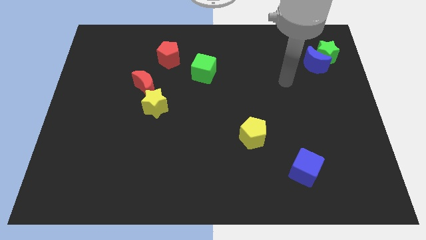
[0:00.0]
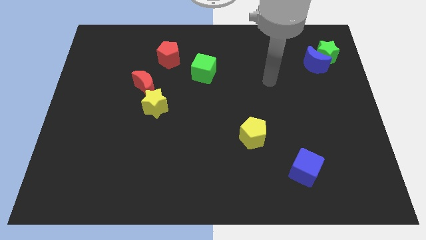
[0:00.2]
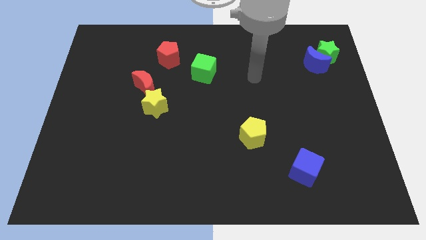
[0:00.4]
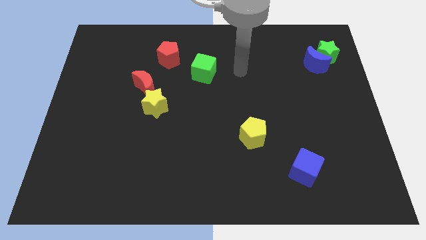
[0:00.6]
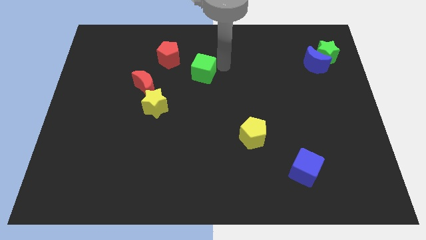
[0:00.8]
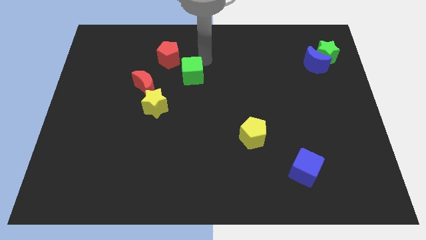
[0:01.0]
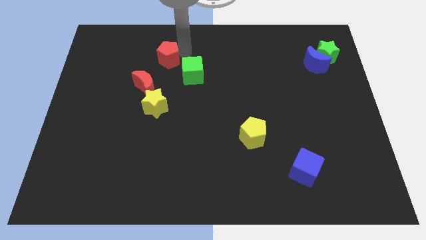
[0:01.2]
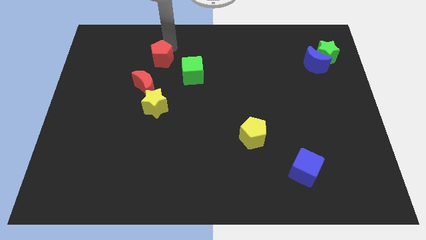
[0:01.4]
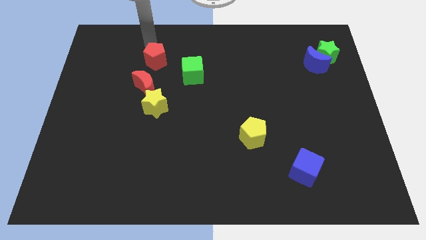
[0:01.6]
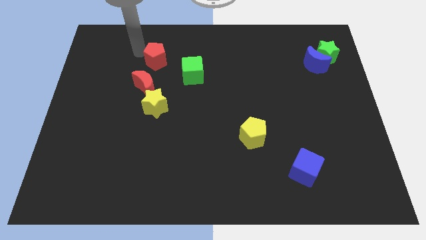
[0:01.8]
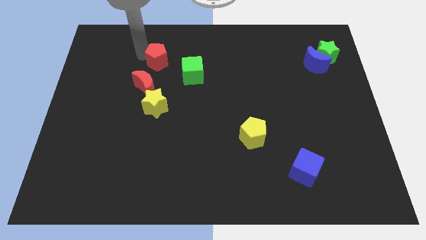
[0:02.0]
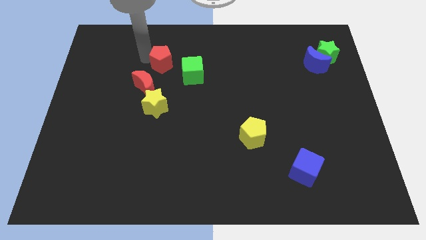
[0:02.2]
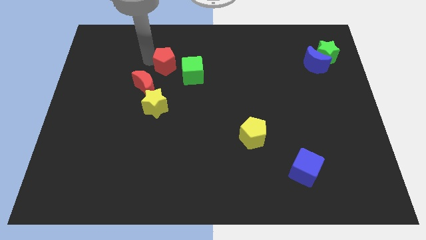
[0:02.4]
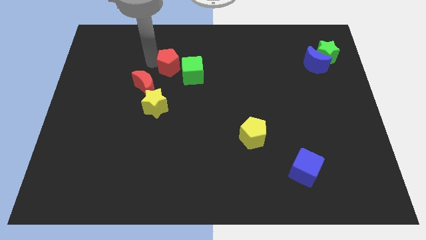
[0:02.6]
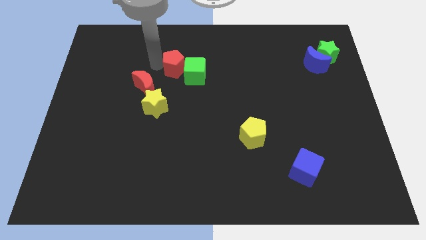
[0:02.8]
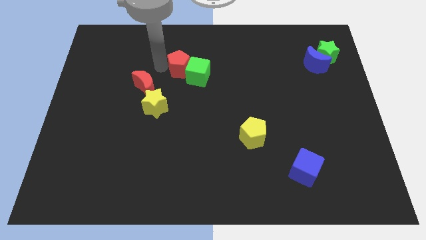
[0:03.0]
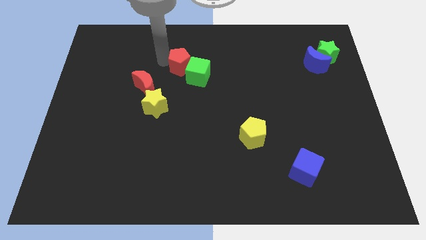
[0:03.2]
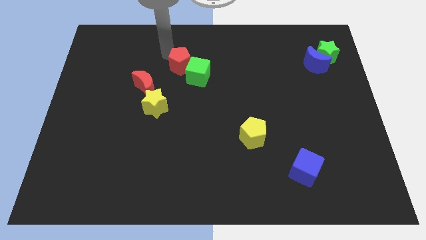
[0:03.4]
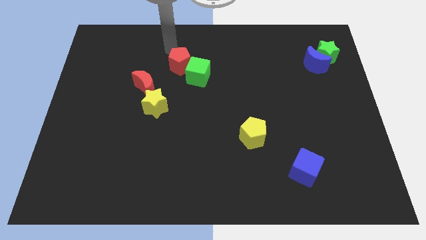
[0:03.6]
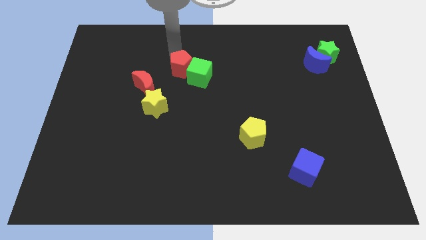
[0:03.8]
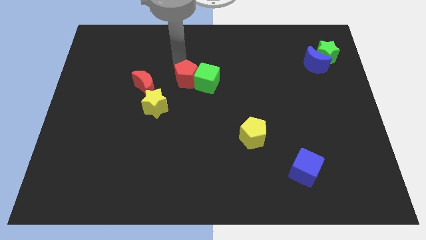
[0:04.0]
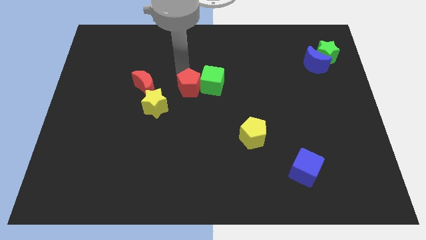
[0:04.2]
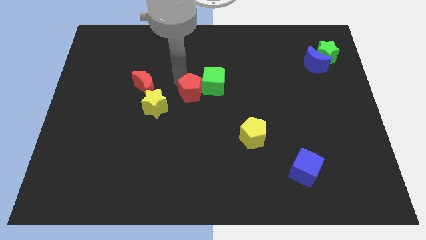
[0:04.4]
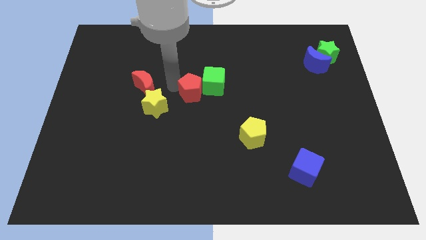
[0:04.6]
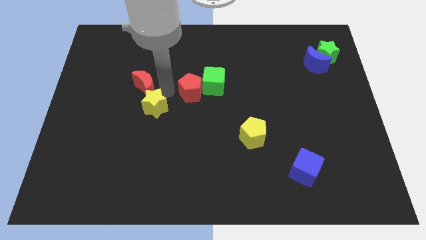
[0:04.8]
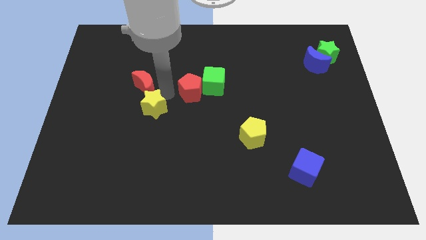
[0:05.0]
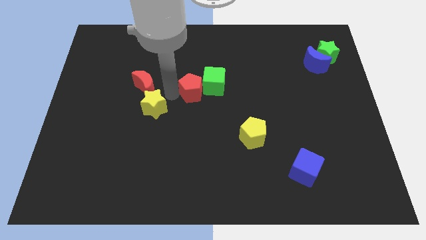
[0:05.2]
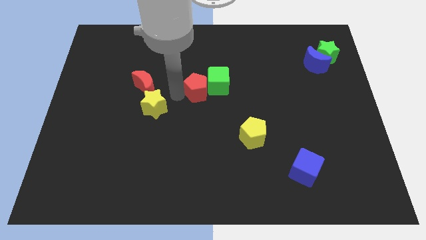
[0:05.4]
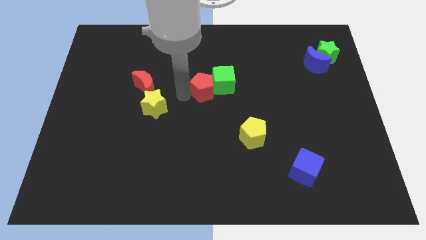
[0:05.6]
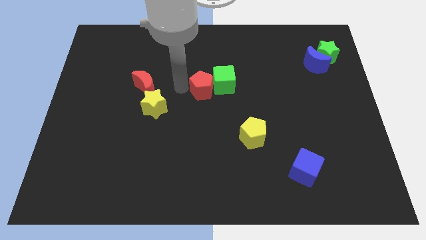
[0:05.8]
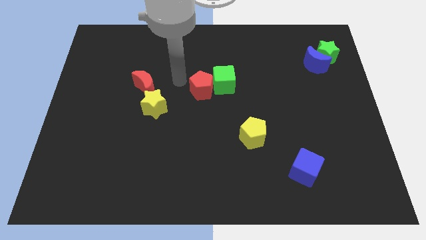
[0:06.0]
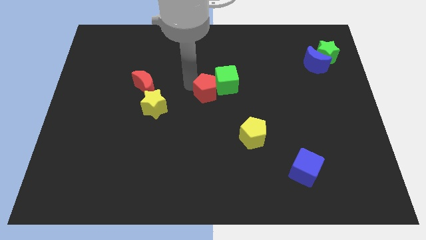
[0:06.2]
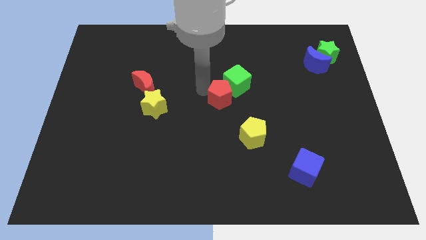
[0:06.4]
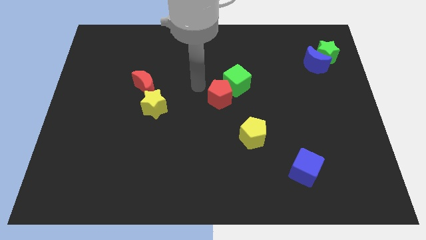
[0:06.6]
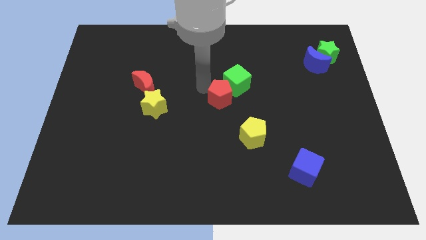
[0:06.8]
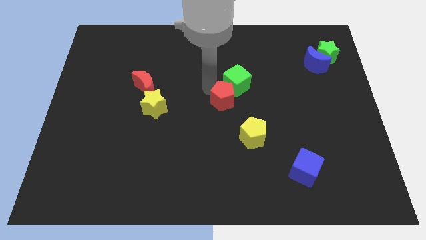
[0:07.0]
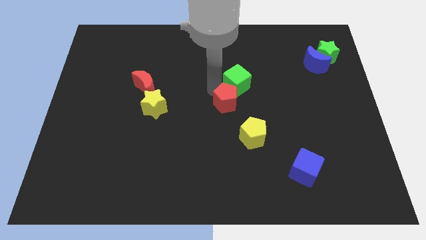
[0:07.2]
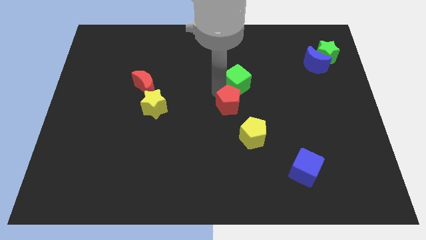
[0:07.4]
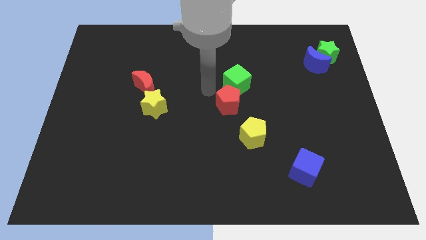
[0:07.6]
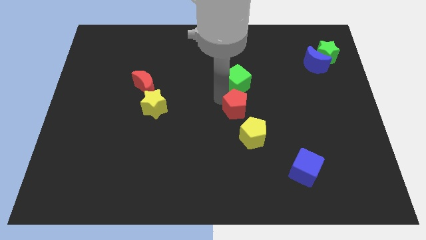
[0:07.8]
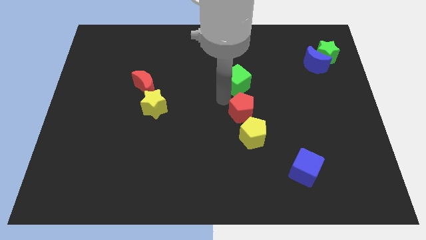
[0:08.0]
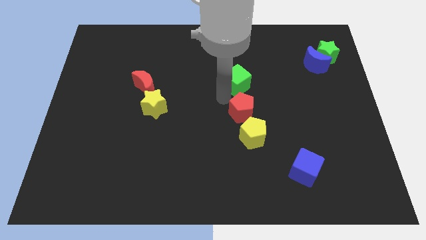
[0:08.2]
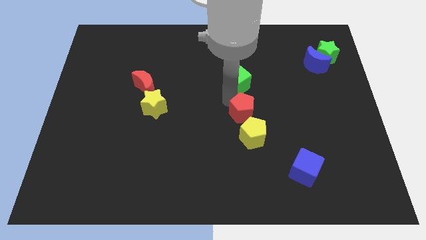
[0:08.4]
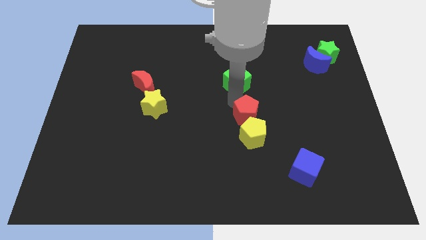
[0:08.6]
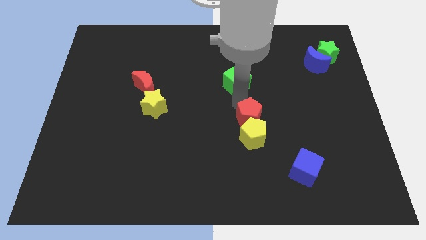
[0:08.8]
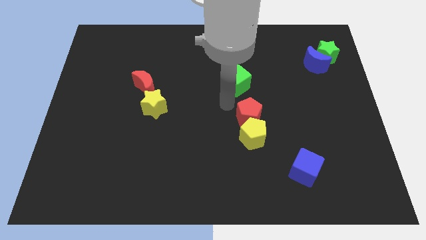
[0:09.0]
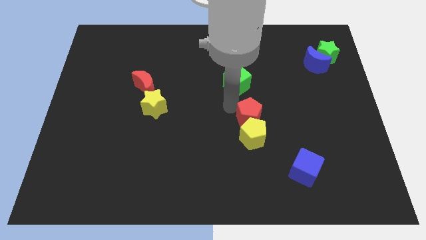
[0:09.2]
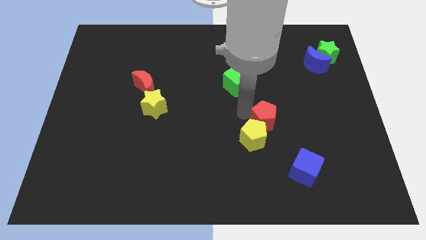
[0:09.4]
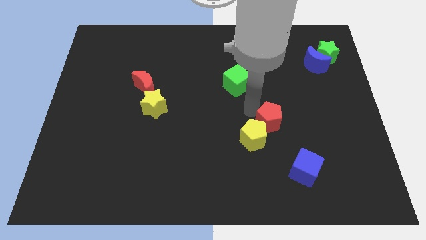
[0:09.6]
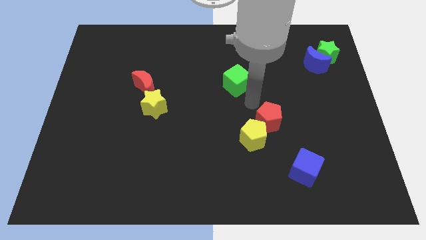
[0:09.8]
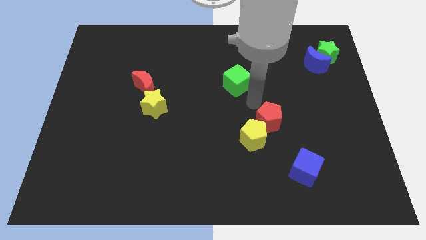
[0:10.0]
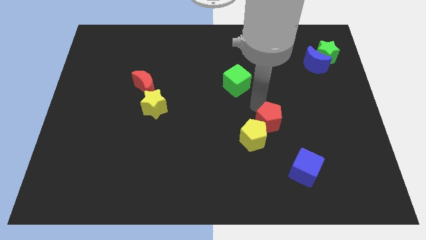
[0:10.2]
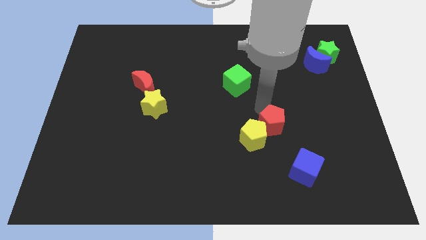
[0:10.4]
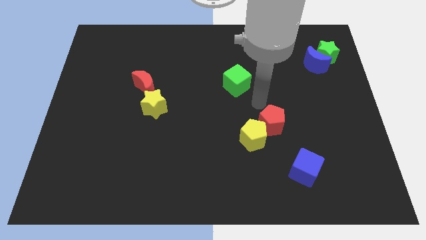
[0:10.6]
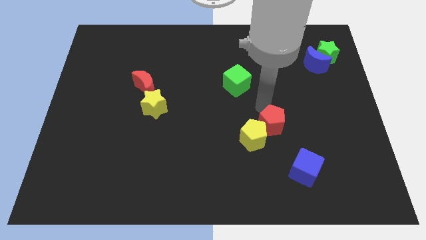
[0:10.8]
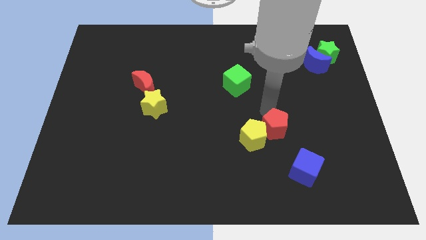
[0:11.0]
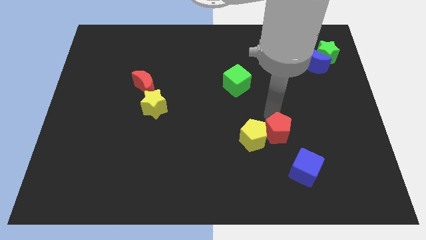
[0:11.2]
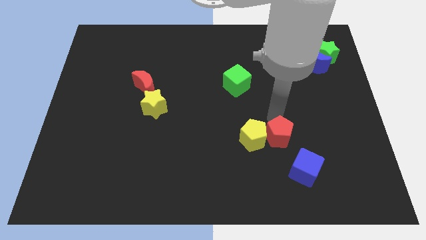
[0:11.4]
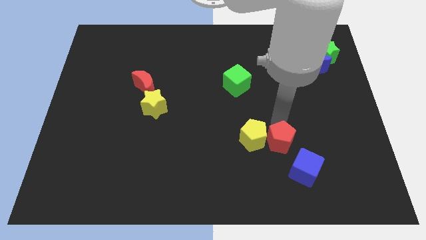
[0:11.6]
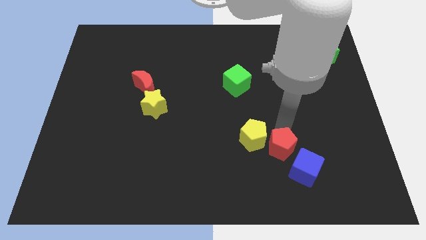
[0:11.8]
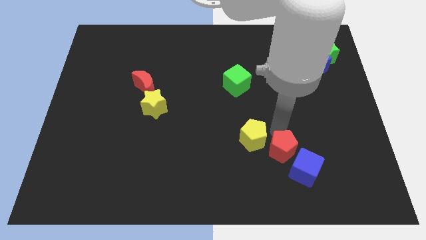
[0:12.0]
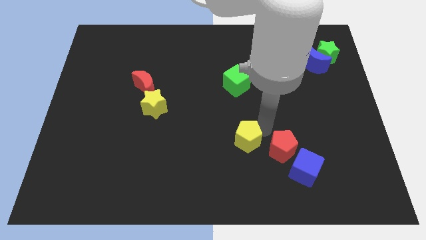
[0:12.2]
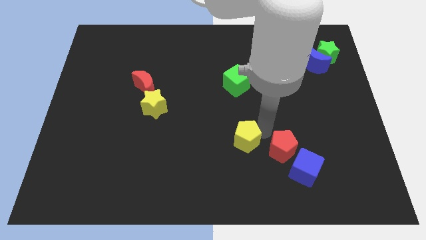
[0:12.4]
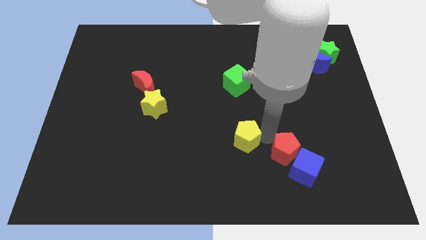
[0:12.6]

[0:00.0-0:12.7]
push the red pentagon towards the blue cube
